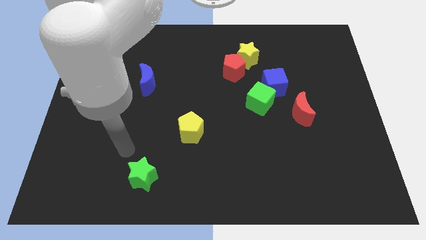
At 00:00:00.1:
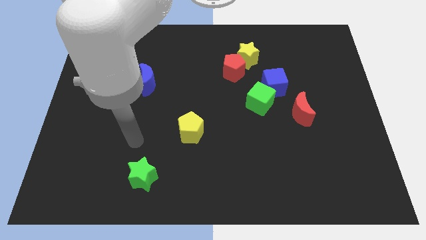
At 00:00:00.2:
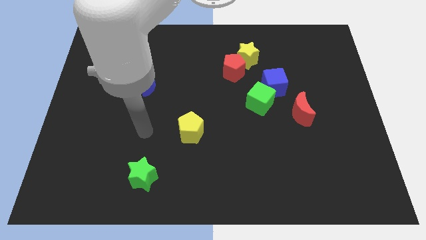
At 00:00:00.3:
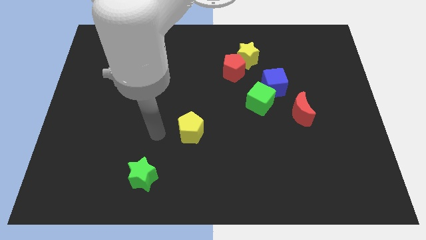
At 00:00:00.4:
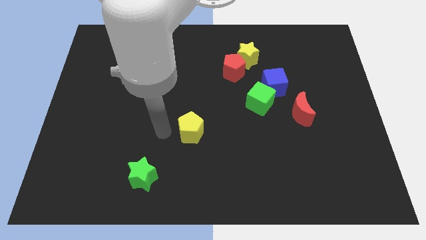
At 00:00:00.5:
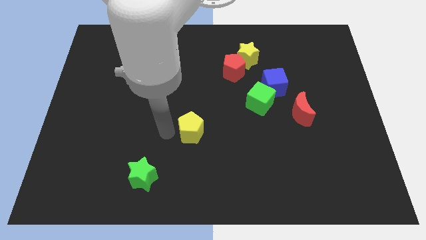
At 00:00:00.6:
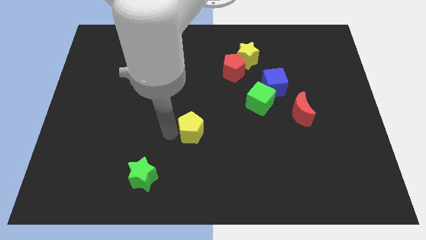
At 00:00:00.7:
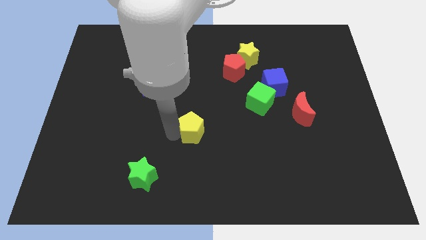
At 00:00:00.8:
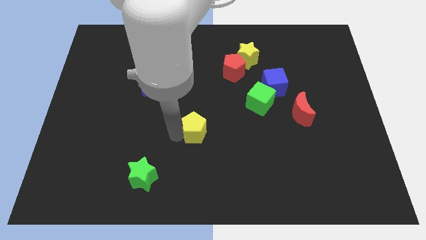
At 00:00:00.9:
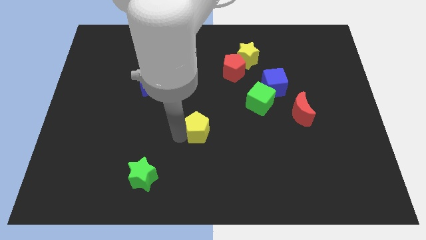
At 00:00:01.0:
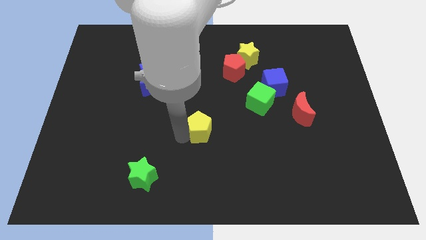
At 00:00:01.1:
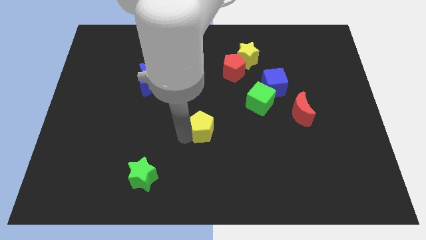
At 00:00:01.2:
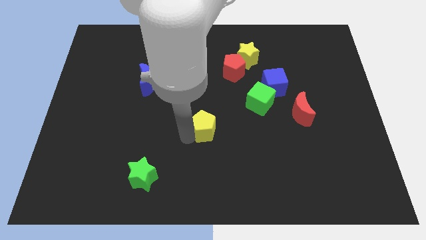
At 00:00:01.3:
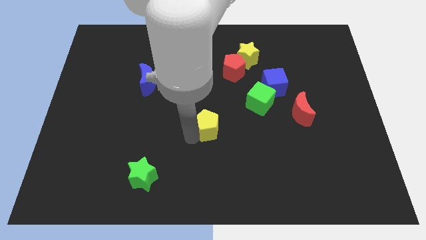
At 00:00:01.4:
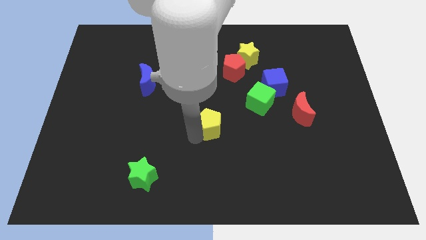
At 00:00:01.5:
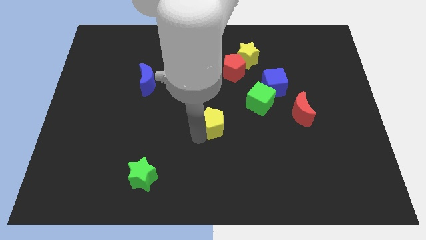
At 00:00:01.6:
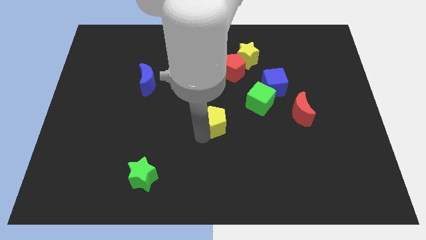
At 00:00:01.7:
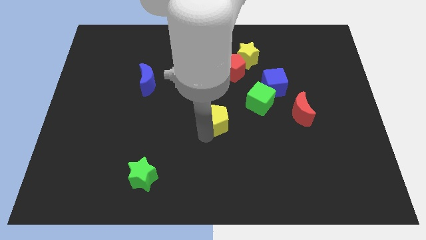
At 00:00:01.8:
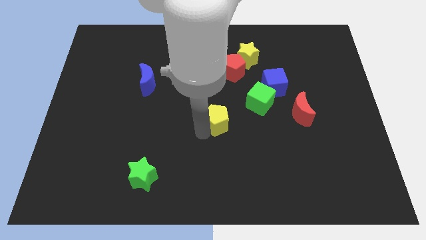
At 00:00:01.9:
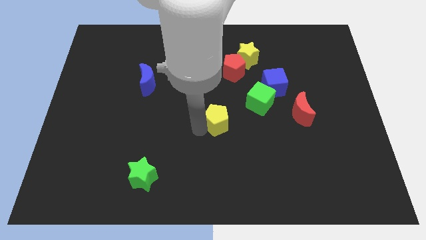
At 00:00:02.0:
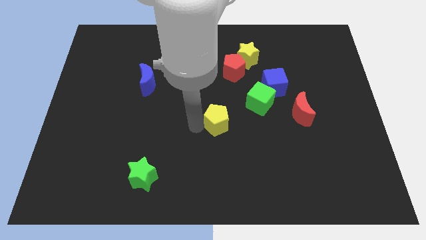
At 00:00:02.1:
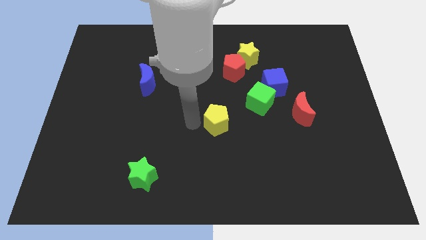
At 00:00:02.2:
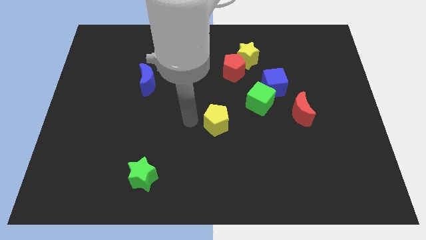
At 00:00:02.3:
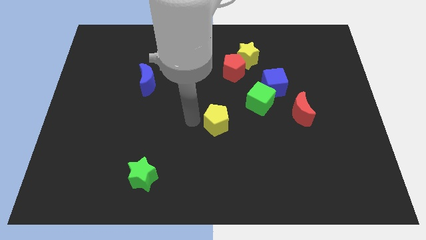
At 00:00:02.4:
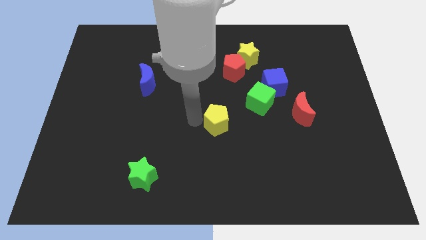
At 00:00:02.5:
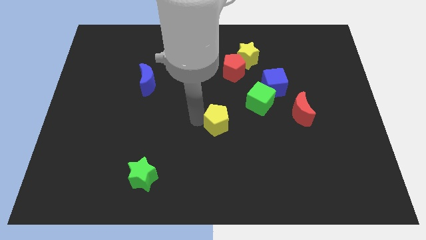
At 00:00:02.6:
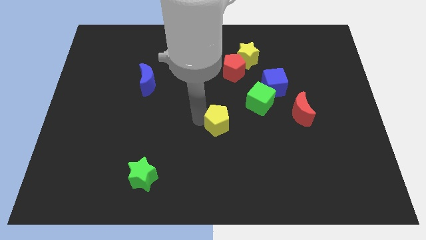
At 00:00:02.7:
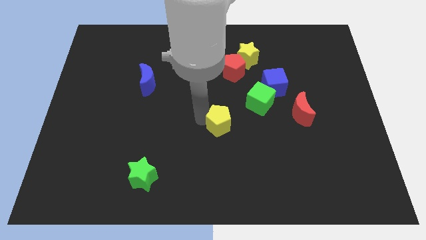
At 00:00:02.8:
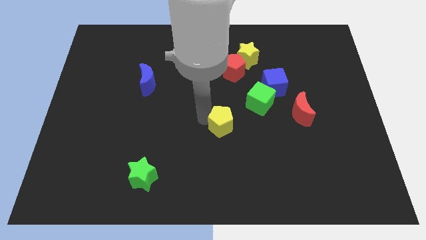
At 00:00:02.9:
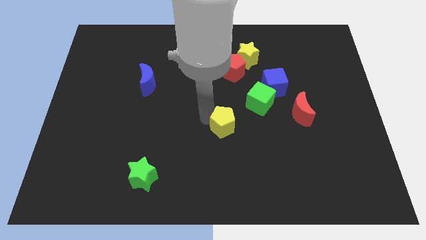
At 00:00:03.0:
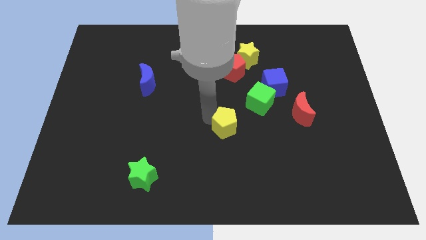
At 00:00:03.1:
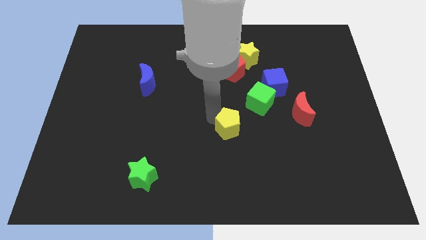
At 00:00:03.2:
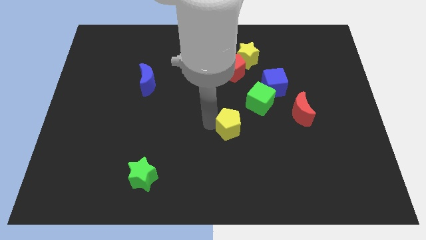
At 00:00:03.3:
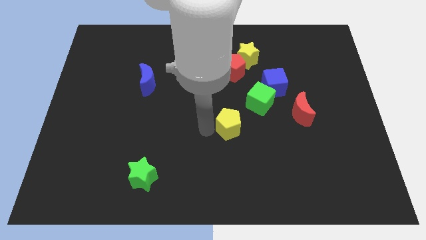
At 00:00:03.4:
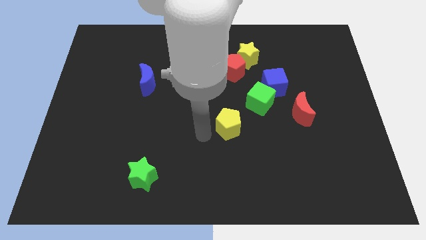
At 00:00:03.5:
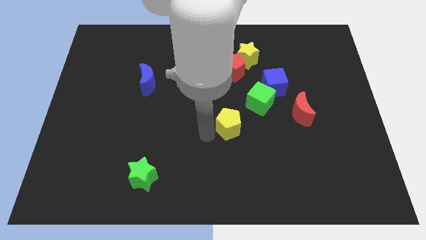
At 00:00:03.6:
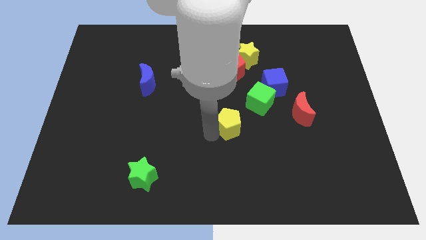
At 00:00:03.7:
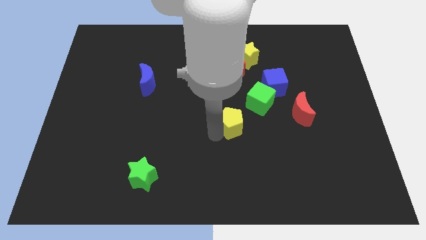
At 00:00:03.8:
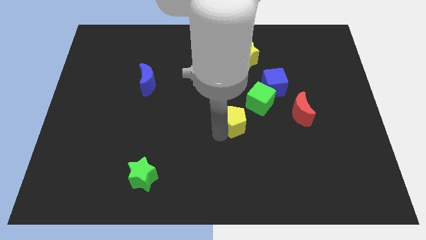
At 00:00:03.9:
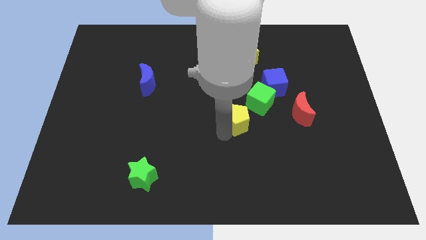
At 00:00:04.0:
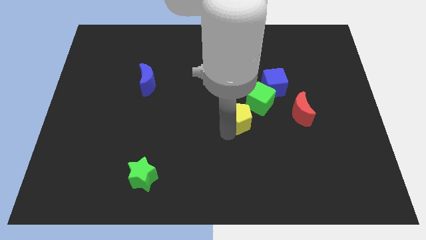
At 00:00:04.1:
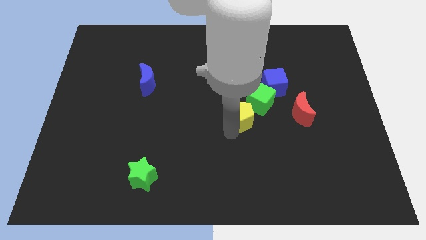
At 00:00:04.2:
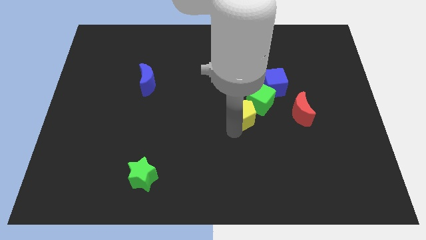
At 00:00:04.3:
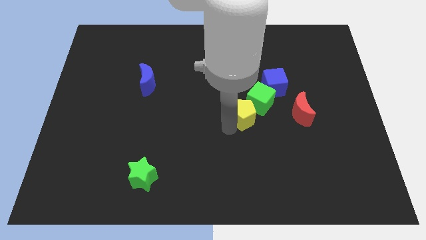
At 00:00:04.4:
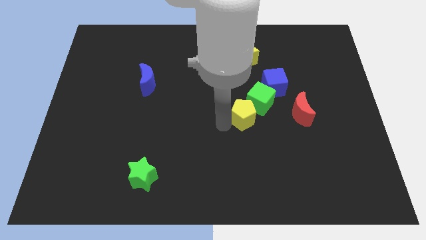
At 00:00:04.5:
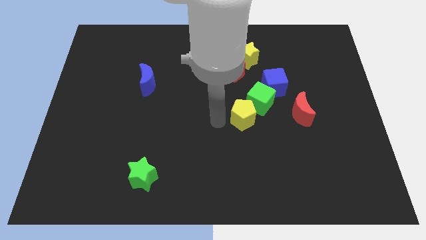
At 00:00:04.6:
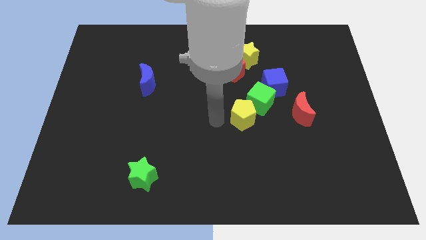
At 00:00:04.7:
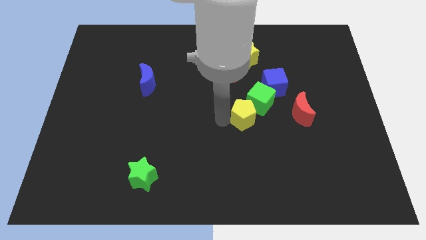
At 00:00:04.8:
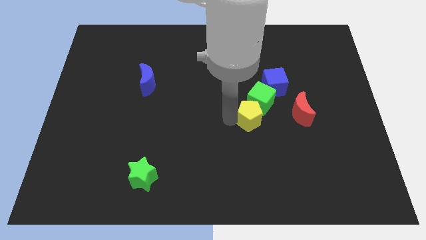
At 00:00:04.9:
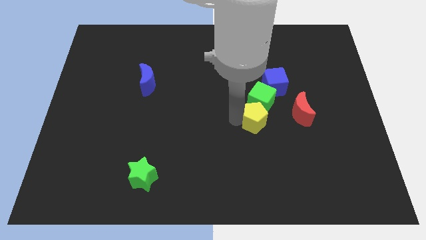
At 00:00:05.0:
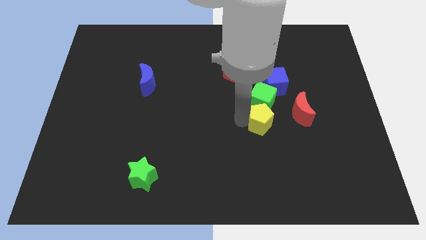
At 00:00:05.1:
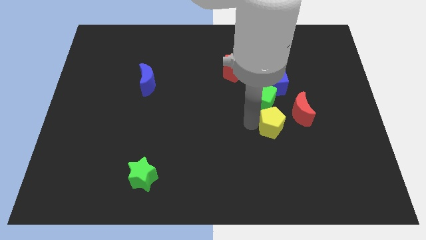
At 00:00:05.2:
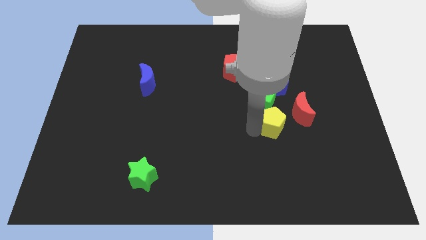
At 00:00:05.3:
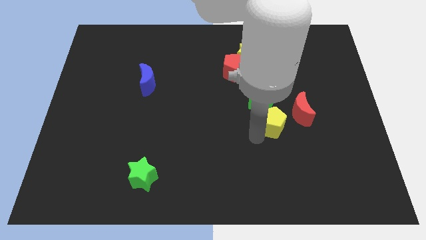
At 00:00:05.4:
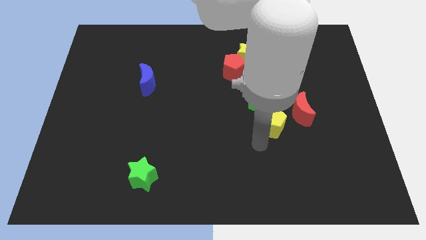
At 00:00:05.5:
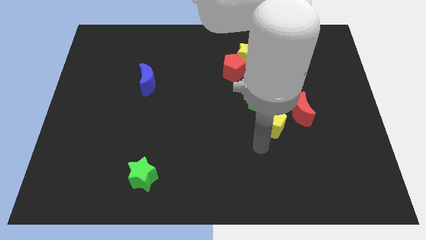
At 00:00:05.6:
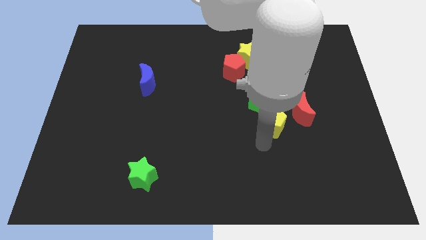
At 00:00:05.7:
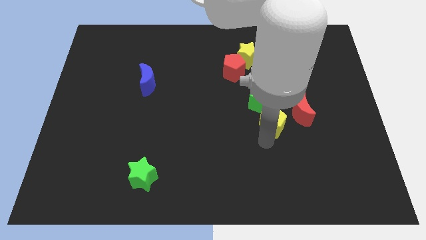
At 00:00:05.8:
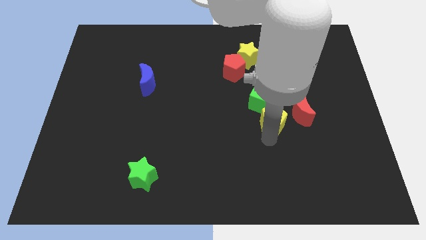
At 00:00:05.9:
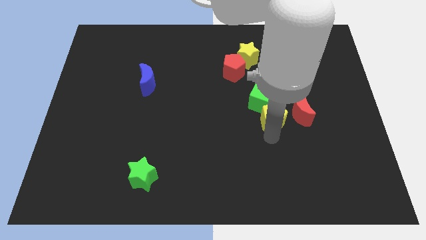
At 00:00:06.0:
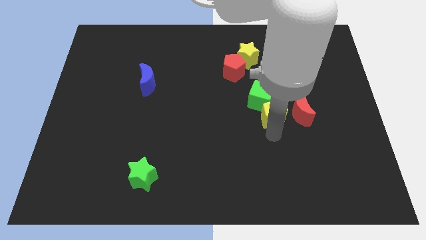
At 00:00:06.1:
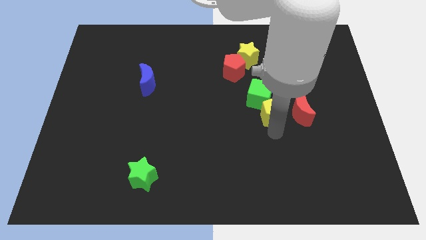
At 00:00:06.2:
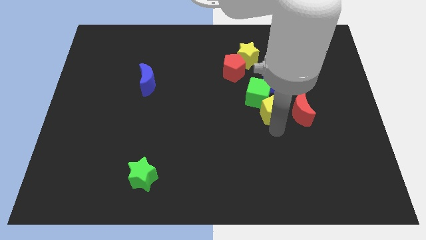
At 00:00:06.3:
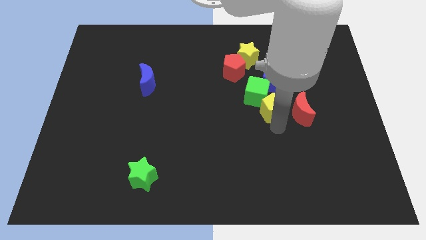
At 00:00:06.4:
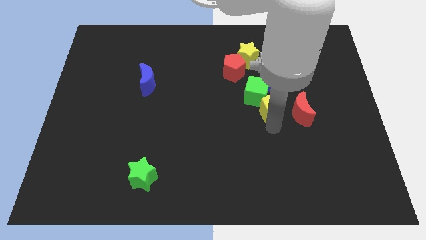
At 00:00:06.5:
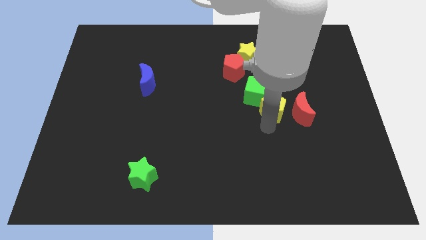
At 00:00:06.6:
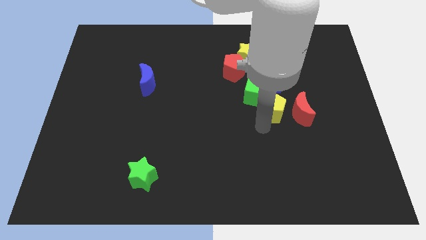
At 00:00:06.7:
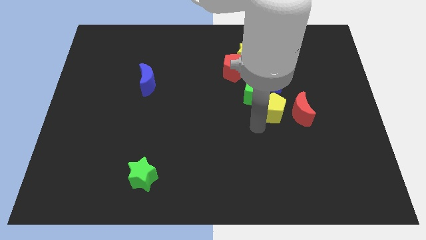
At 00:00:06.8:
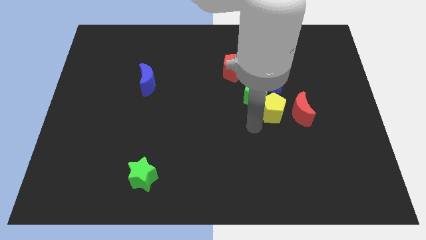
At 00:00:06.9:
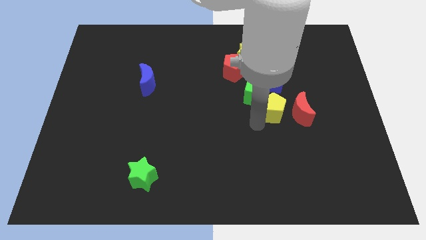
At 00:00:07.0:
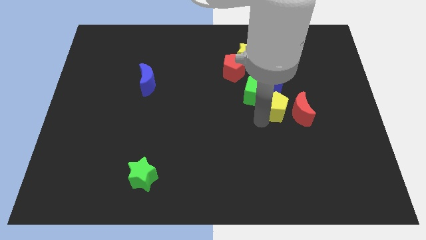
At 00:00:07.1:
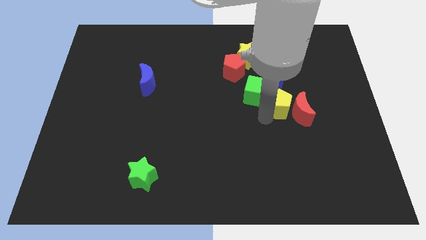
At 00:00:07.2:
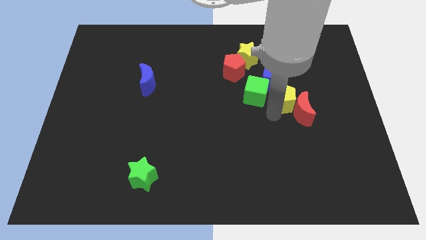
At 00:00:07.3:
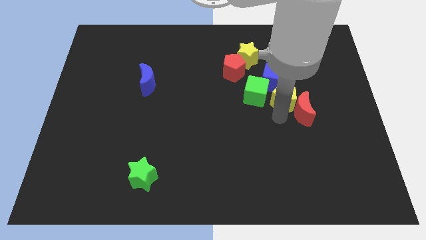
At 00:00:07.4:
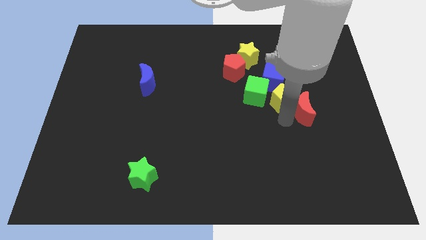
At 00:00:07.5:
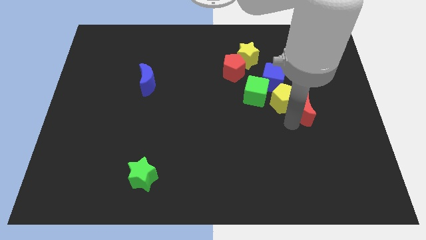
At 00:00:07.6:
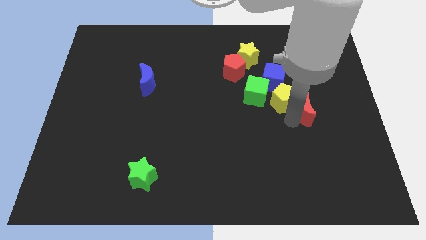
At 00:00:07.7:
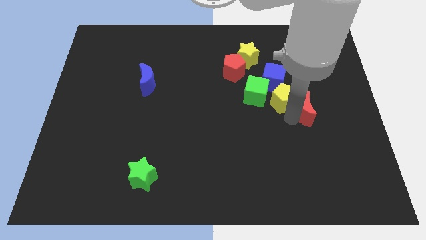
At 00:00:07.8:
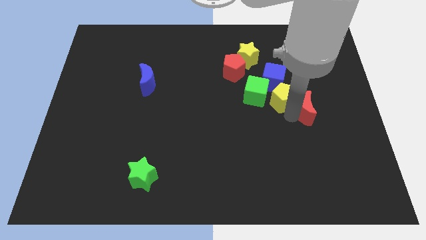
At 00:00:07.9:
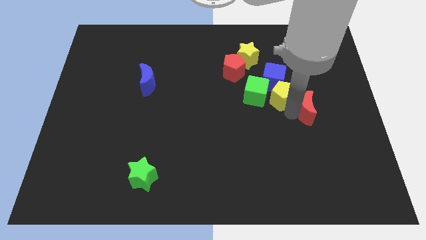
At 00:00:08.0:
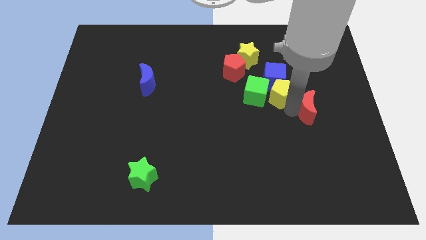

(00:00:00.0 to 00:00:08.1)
put the yellow pentagon to the top right side of the green cube
